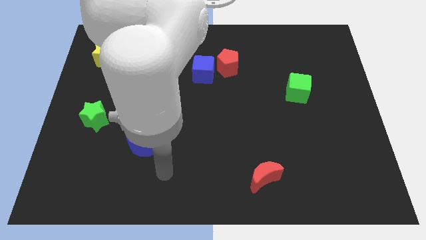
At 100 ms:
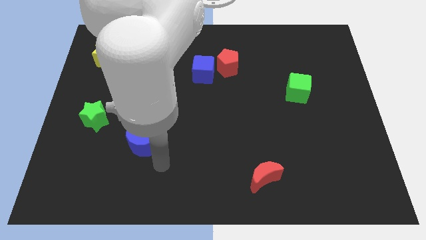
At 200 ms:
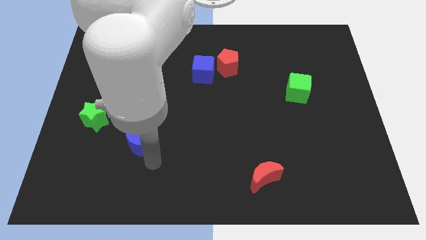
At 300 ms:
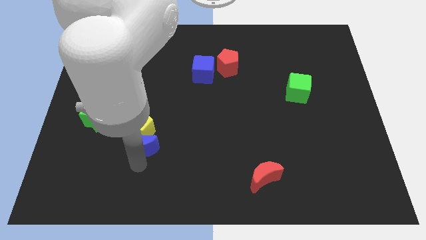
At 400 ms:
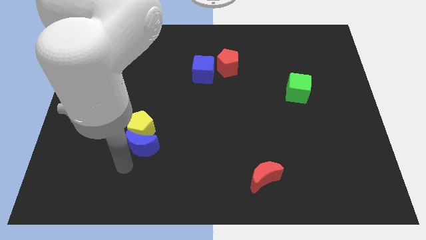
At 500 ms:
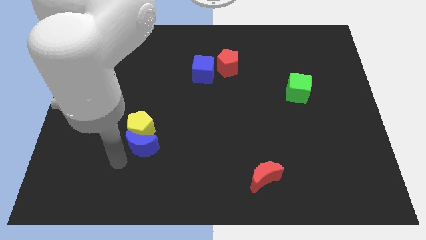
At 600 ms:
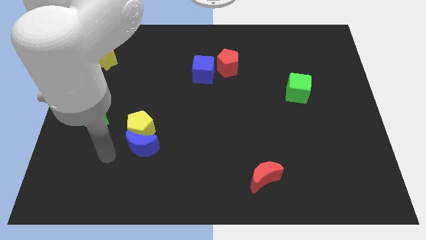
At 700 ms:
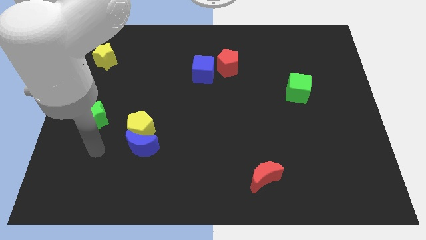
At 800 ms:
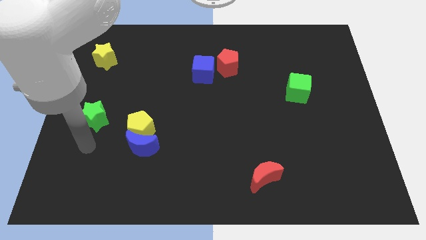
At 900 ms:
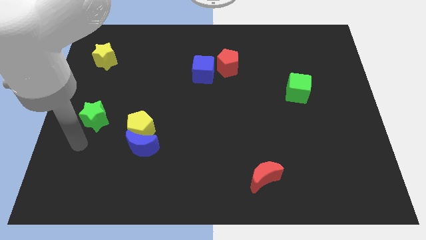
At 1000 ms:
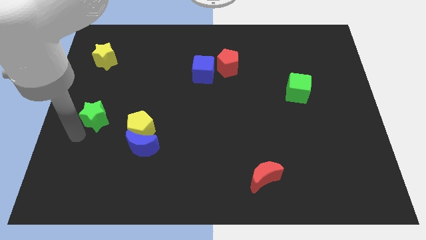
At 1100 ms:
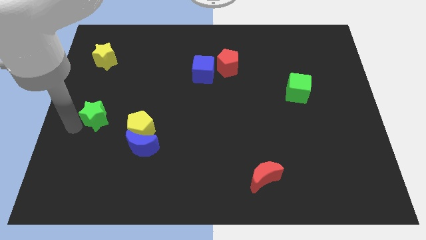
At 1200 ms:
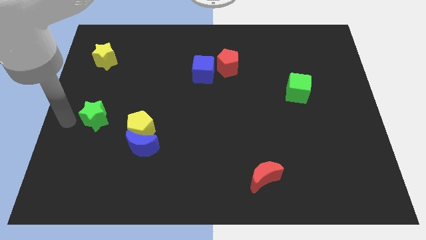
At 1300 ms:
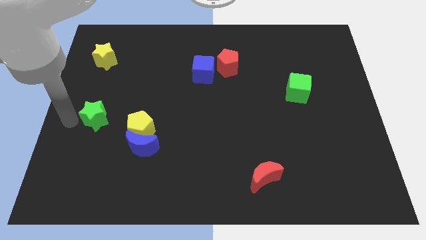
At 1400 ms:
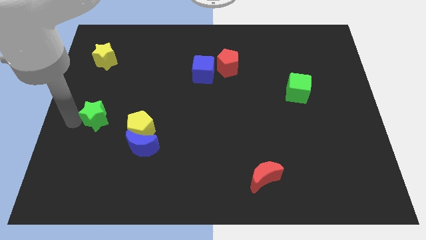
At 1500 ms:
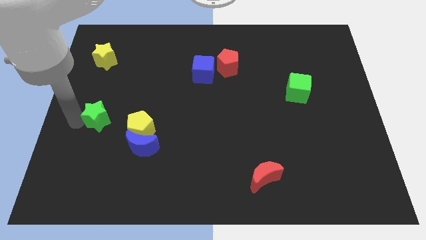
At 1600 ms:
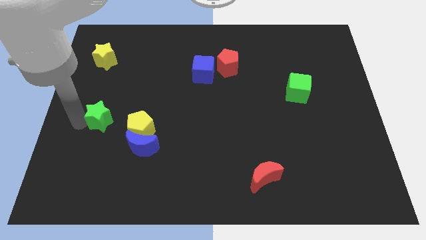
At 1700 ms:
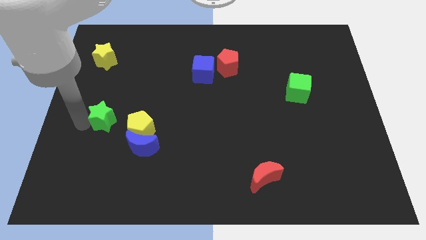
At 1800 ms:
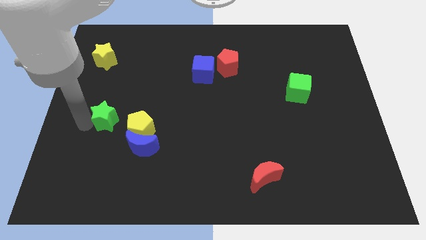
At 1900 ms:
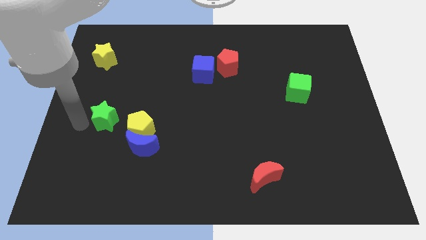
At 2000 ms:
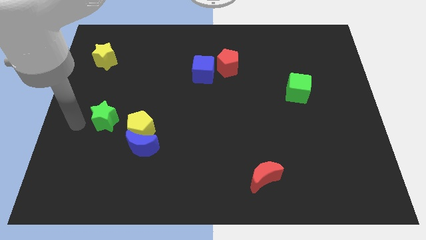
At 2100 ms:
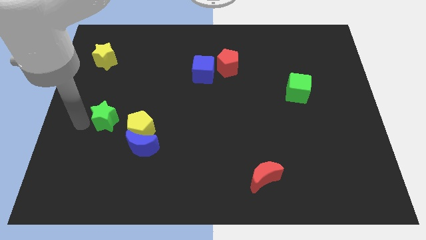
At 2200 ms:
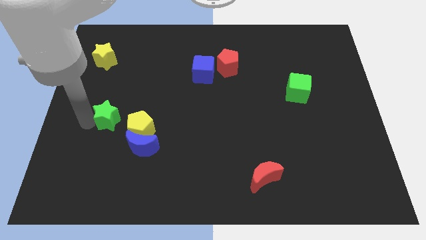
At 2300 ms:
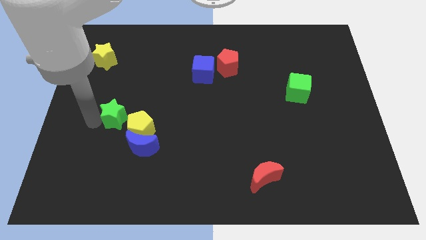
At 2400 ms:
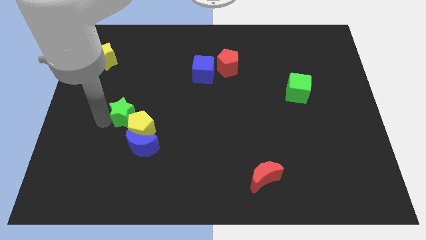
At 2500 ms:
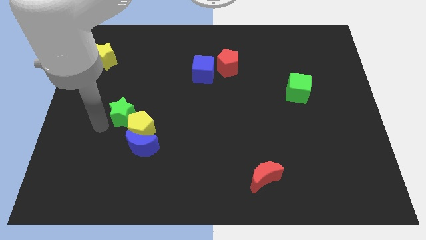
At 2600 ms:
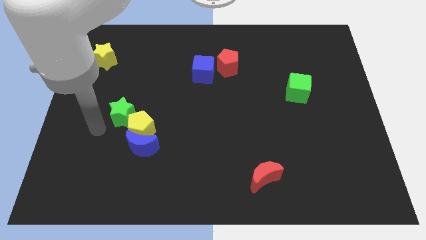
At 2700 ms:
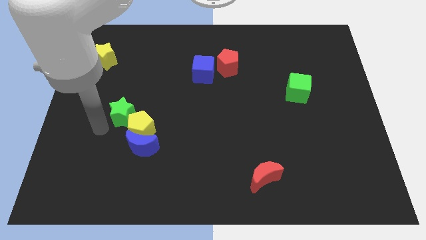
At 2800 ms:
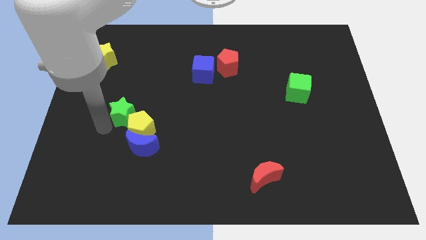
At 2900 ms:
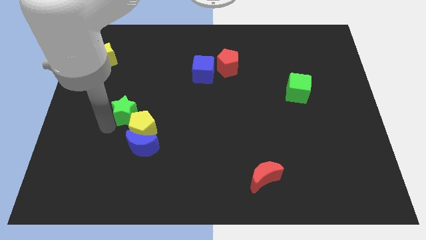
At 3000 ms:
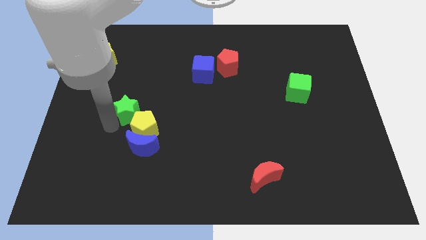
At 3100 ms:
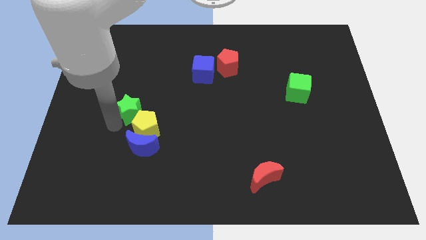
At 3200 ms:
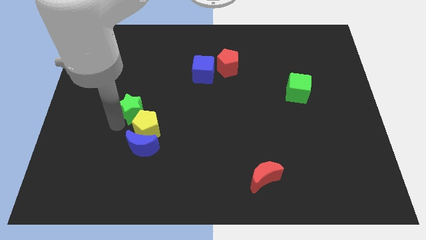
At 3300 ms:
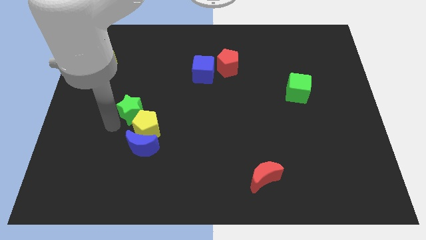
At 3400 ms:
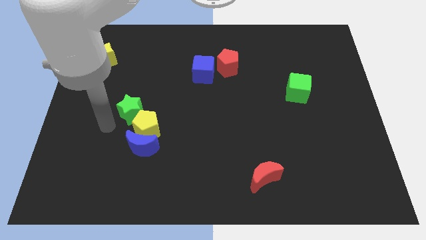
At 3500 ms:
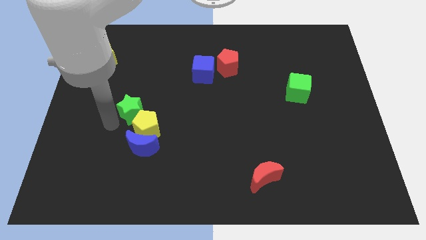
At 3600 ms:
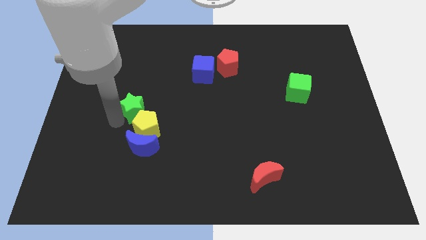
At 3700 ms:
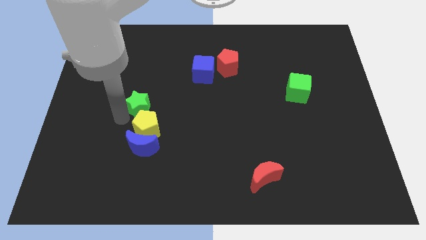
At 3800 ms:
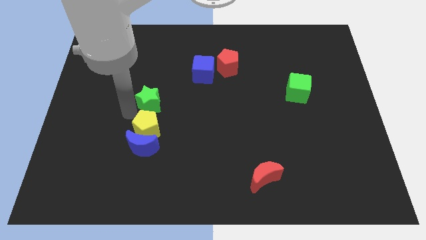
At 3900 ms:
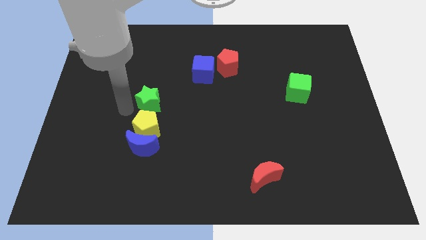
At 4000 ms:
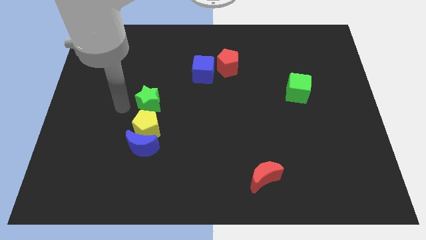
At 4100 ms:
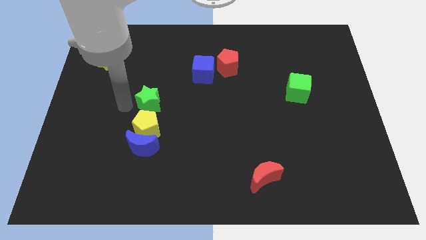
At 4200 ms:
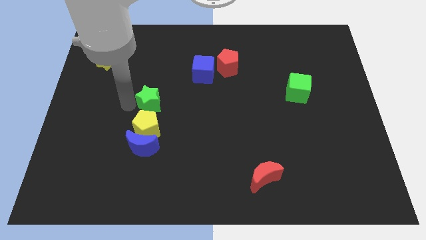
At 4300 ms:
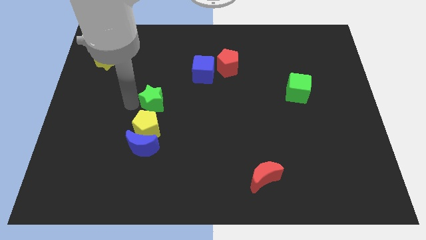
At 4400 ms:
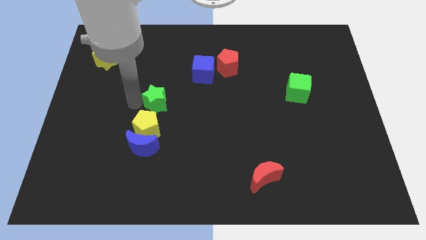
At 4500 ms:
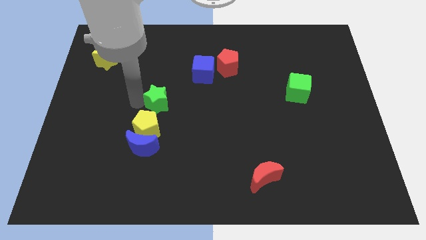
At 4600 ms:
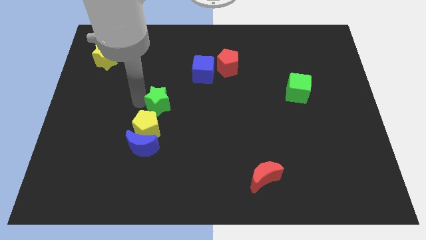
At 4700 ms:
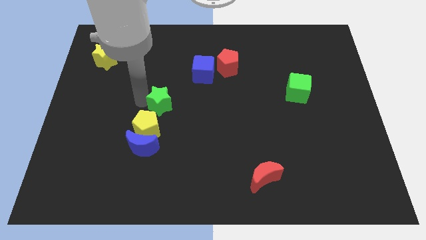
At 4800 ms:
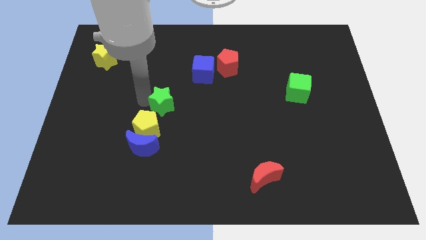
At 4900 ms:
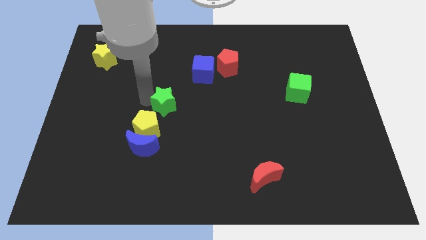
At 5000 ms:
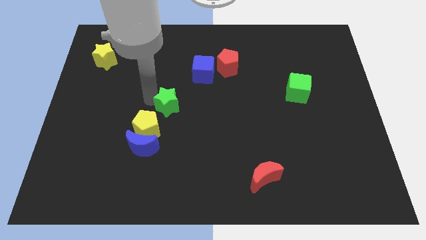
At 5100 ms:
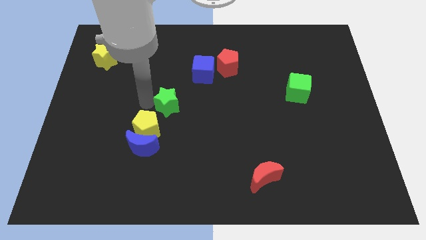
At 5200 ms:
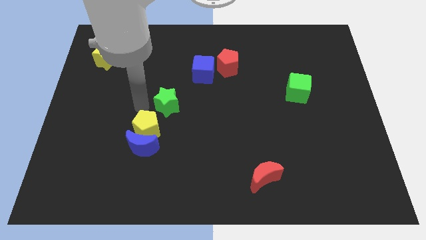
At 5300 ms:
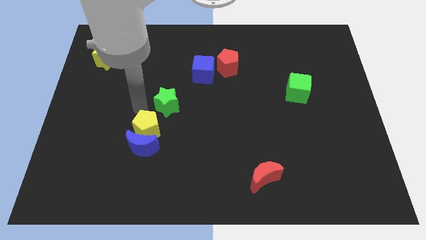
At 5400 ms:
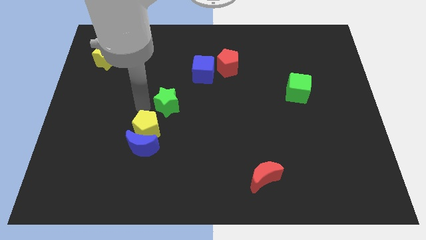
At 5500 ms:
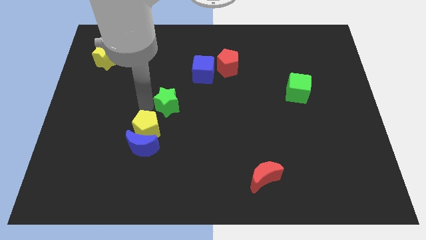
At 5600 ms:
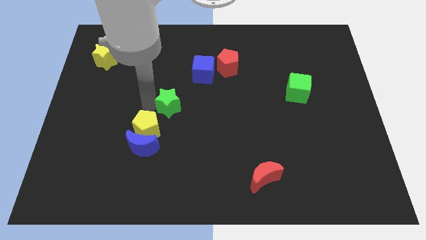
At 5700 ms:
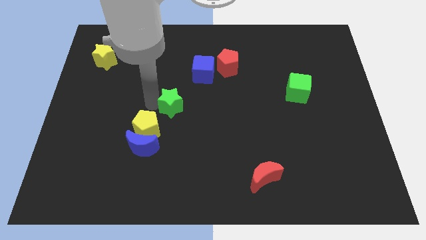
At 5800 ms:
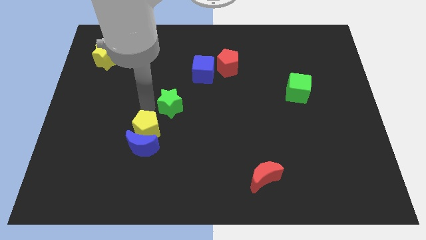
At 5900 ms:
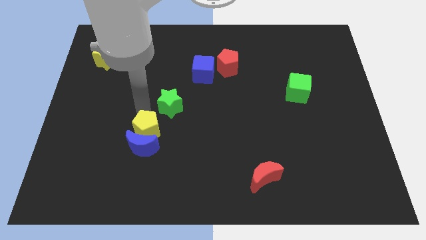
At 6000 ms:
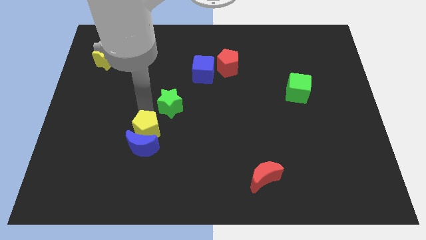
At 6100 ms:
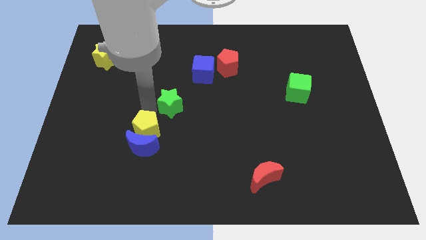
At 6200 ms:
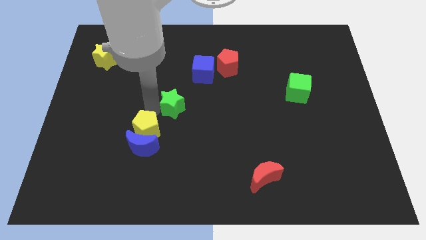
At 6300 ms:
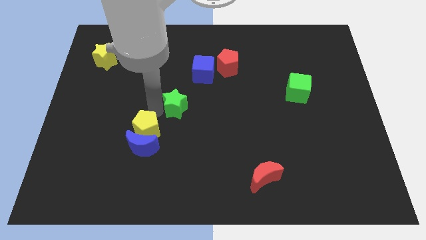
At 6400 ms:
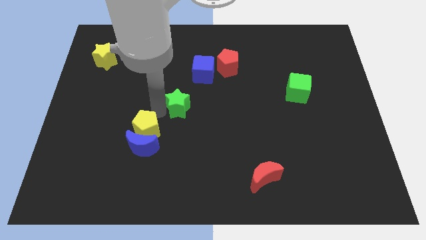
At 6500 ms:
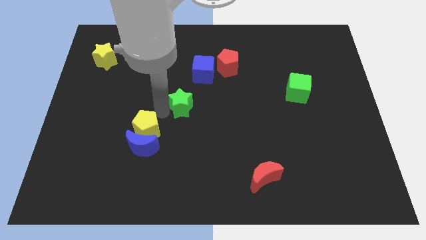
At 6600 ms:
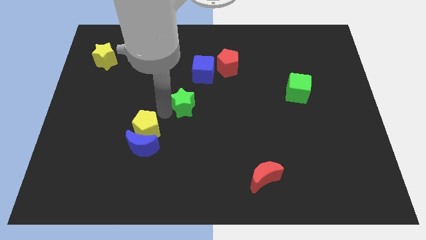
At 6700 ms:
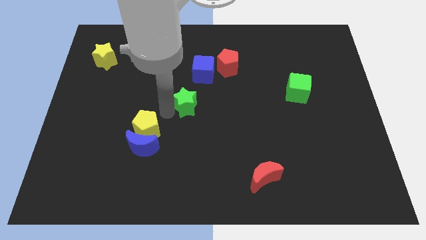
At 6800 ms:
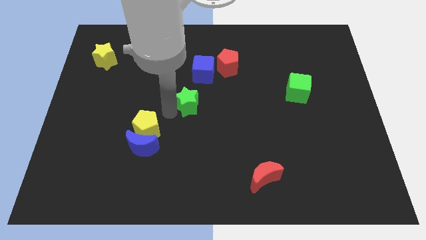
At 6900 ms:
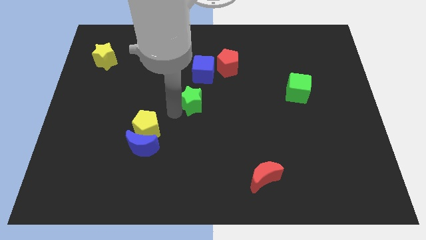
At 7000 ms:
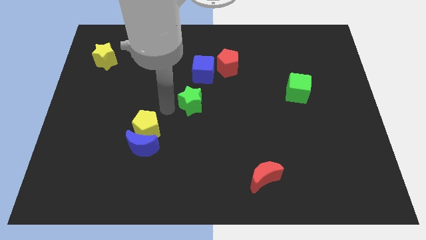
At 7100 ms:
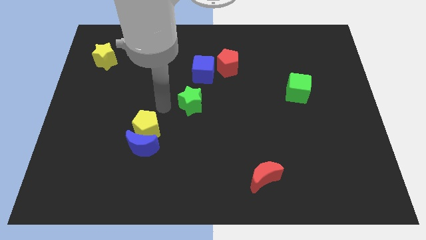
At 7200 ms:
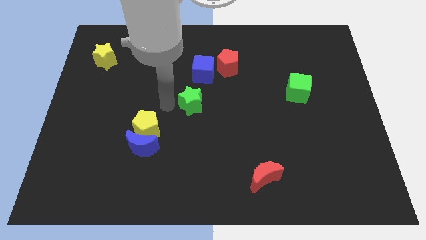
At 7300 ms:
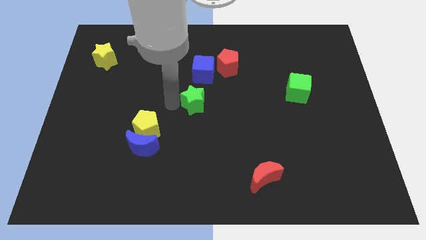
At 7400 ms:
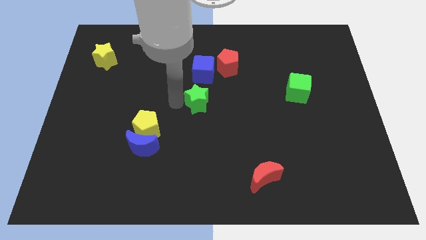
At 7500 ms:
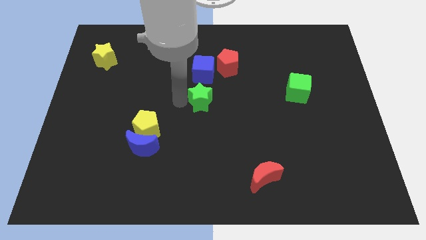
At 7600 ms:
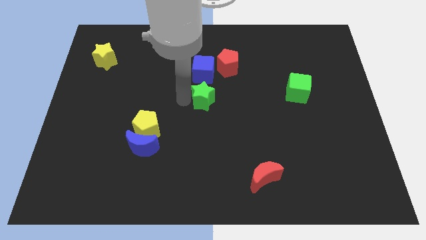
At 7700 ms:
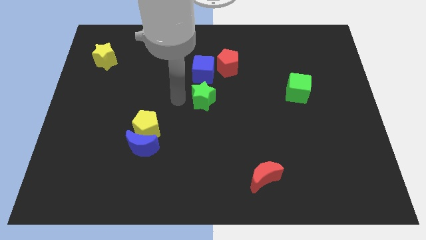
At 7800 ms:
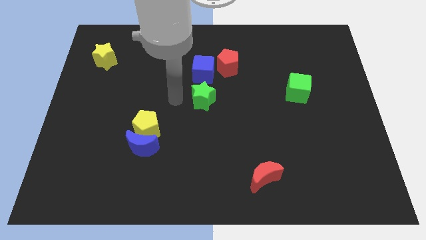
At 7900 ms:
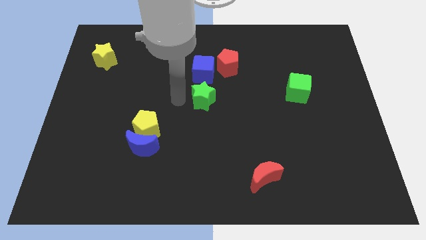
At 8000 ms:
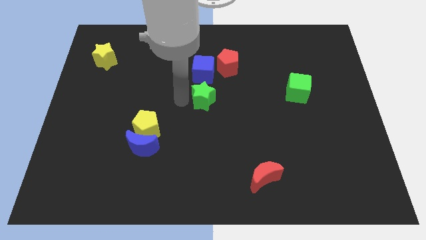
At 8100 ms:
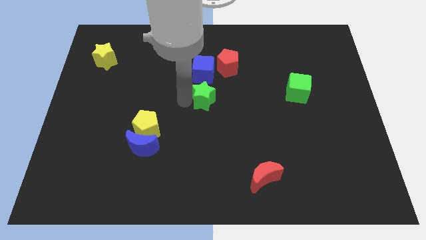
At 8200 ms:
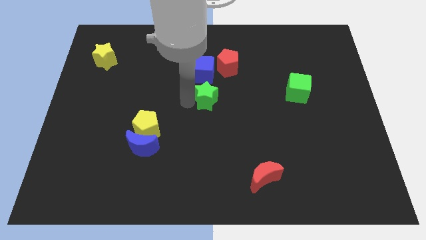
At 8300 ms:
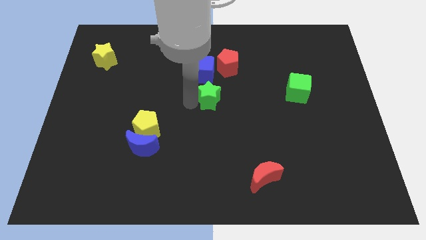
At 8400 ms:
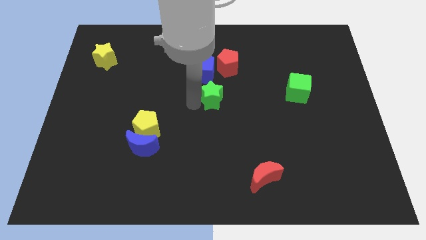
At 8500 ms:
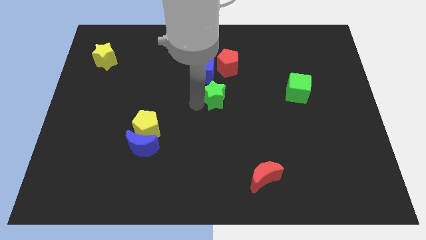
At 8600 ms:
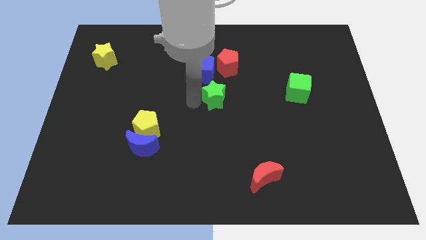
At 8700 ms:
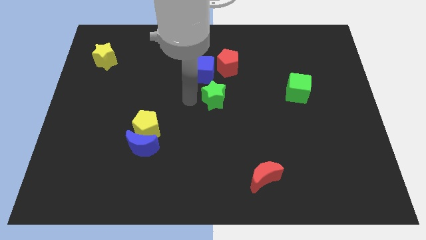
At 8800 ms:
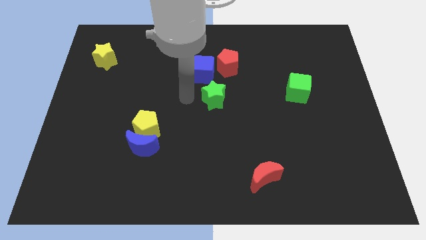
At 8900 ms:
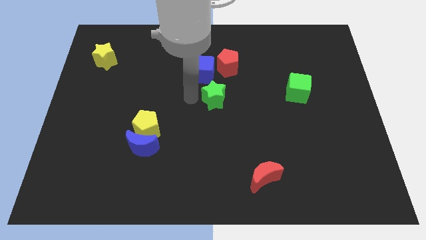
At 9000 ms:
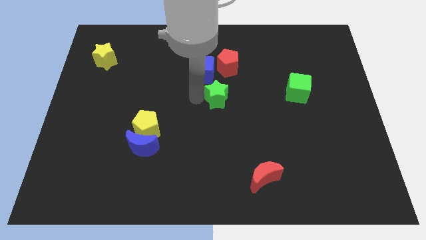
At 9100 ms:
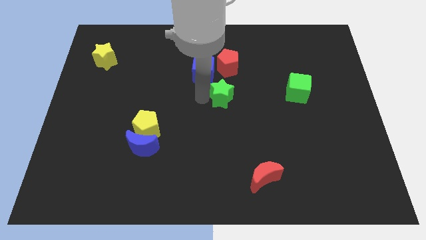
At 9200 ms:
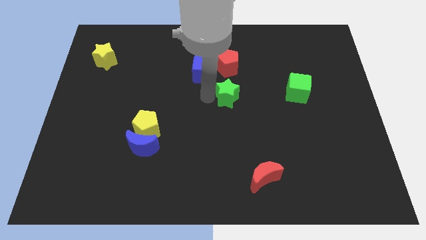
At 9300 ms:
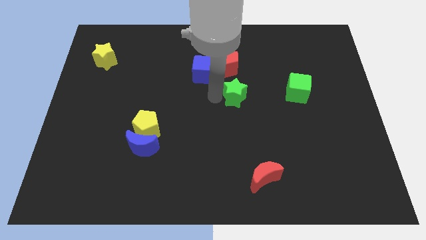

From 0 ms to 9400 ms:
slide the green star to the left side of the green cube
